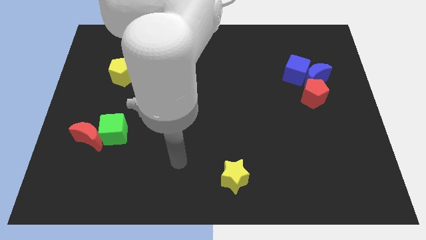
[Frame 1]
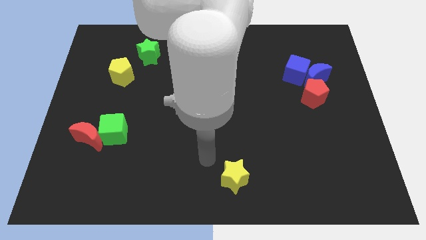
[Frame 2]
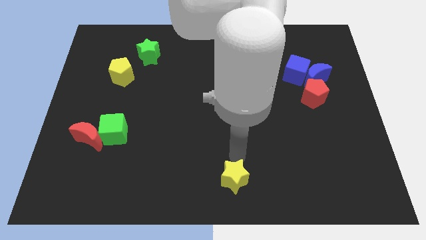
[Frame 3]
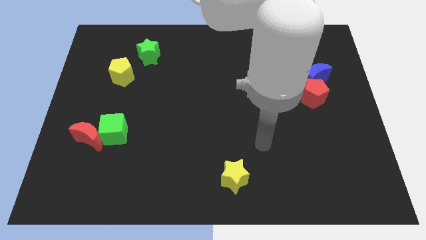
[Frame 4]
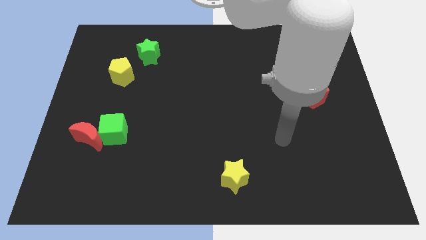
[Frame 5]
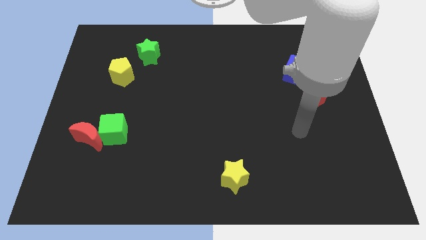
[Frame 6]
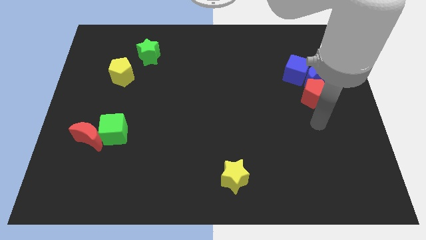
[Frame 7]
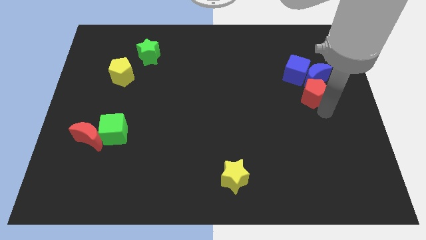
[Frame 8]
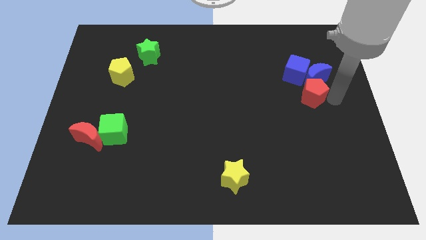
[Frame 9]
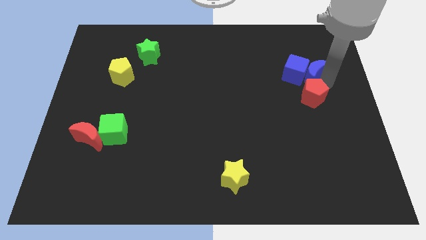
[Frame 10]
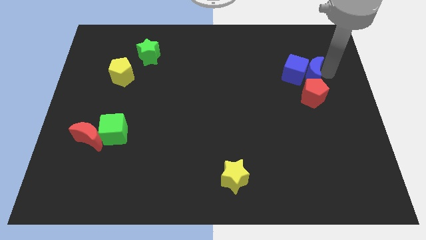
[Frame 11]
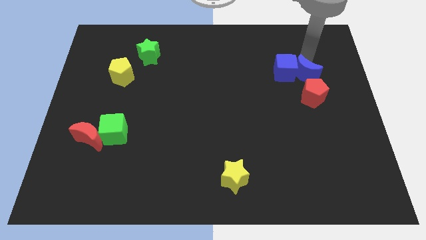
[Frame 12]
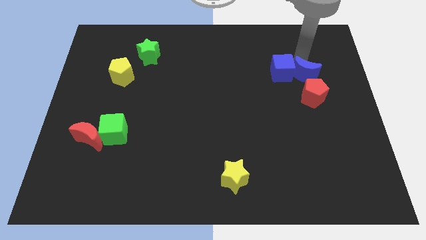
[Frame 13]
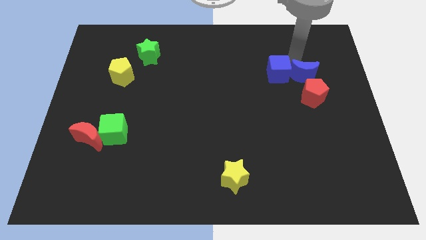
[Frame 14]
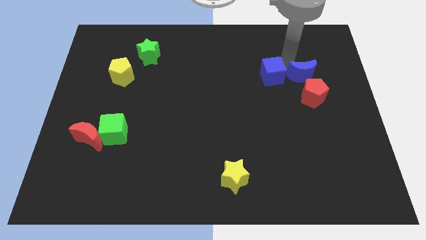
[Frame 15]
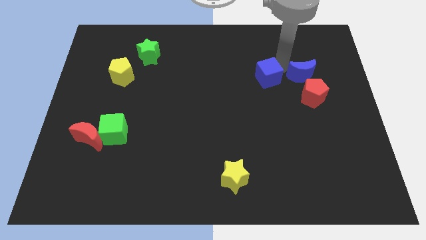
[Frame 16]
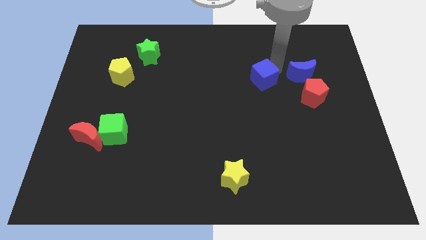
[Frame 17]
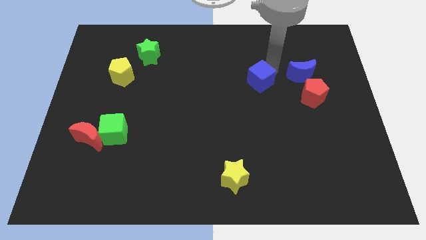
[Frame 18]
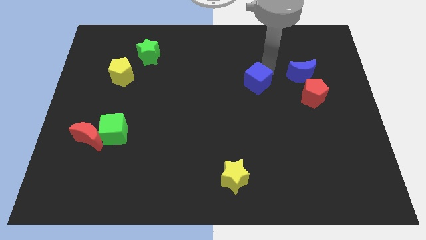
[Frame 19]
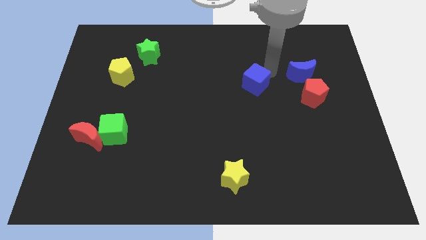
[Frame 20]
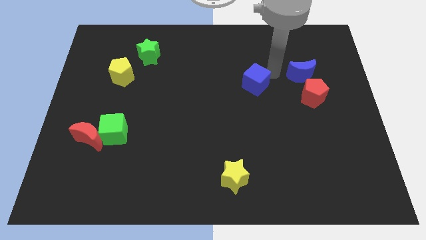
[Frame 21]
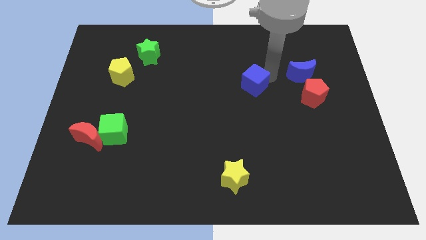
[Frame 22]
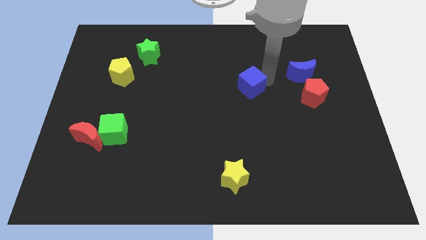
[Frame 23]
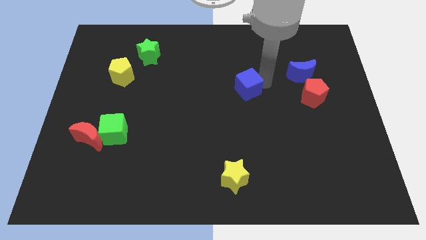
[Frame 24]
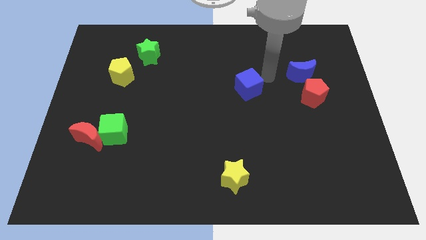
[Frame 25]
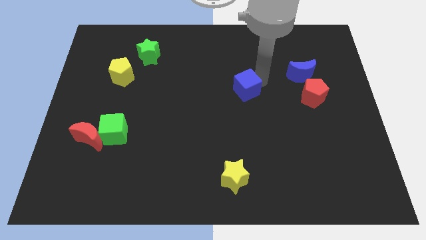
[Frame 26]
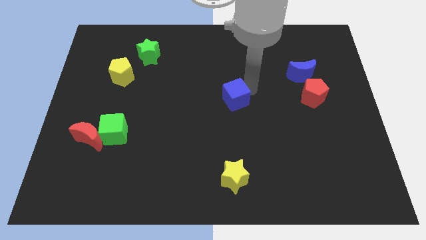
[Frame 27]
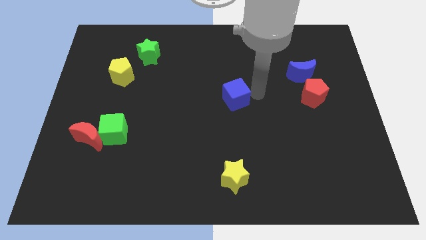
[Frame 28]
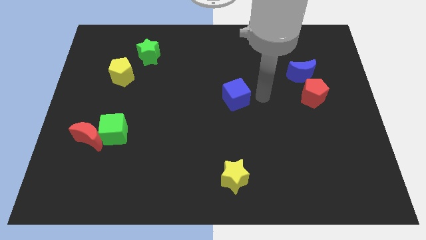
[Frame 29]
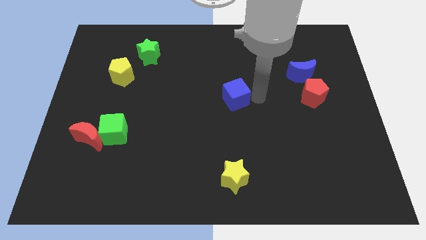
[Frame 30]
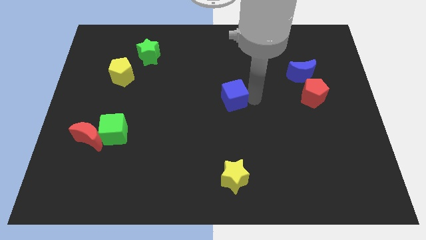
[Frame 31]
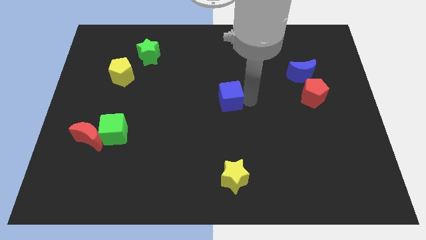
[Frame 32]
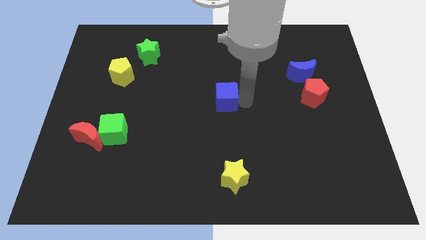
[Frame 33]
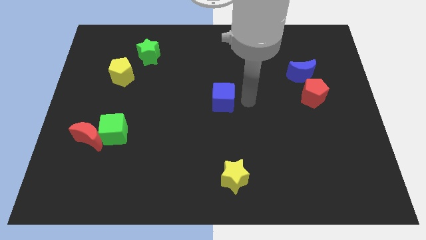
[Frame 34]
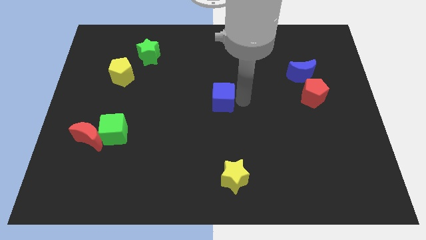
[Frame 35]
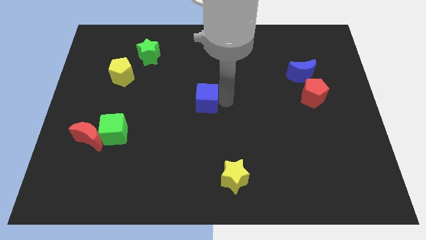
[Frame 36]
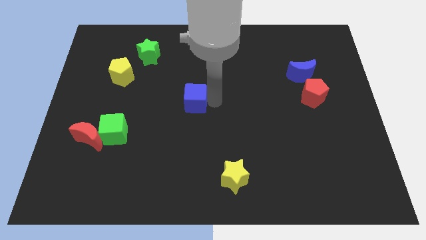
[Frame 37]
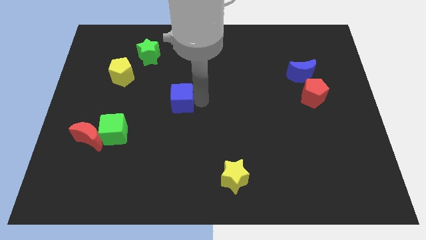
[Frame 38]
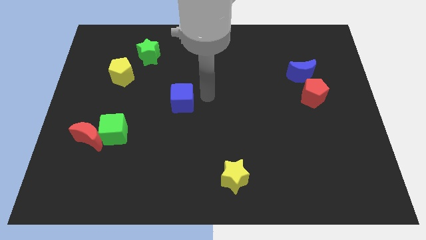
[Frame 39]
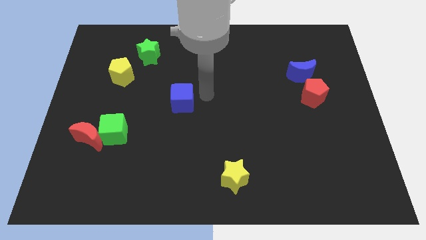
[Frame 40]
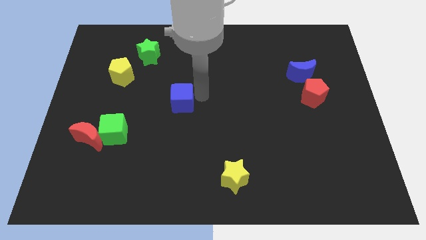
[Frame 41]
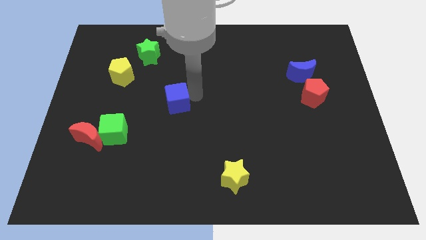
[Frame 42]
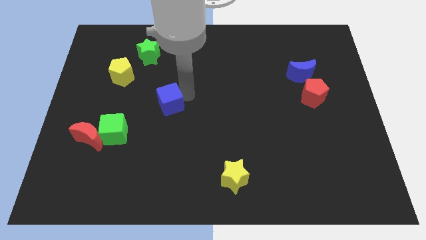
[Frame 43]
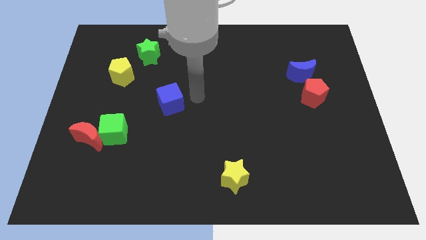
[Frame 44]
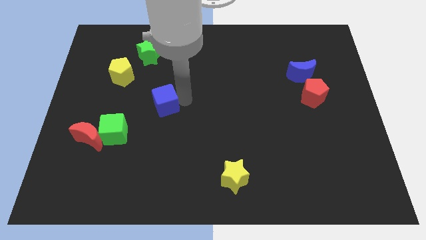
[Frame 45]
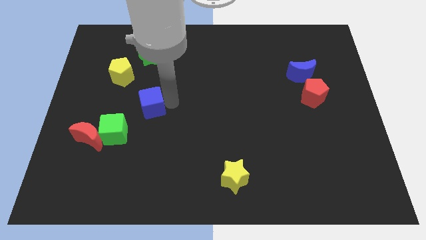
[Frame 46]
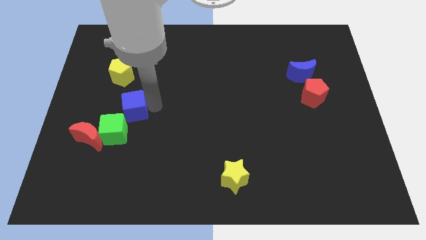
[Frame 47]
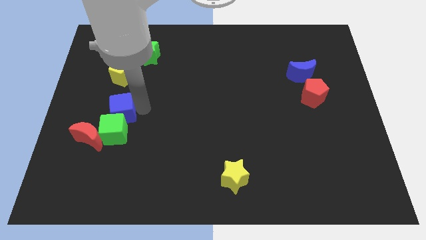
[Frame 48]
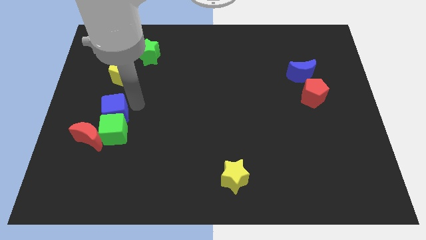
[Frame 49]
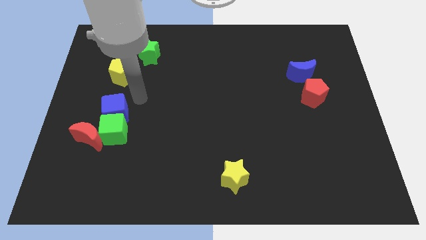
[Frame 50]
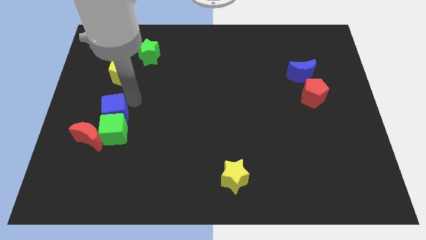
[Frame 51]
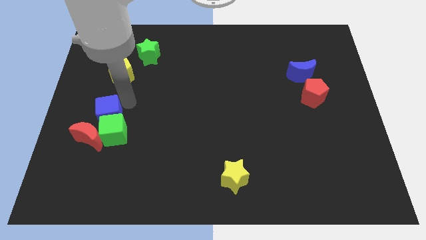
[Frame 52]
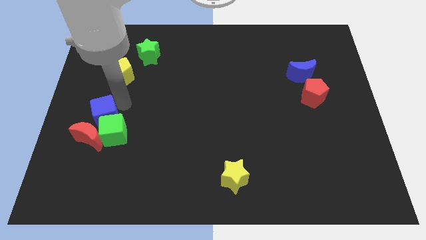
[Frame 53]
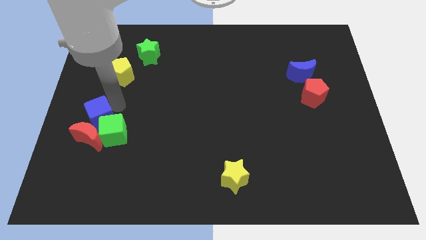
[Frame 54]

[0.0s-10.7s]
slide the blue cube to the red moon

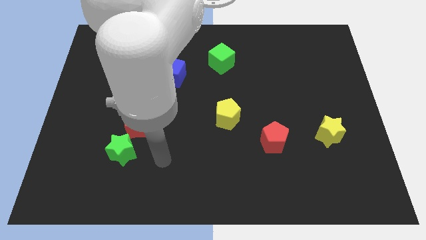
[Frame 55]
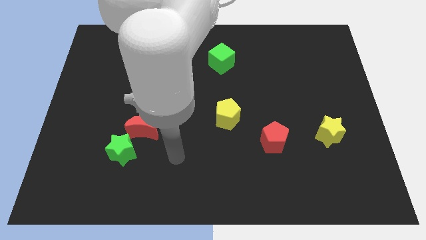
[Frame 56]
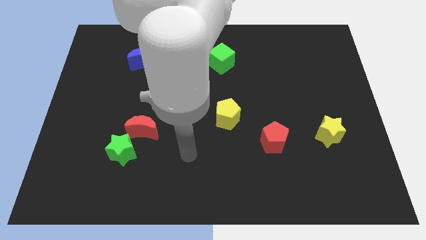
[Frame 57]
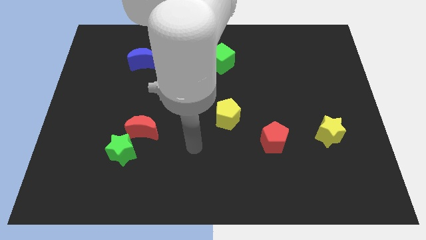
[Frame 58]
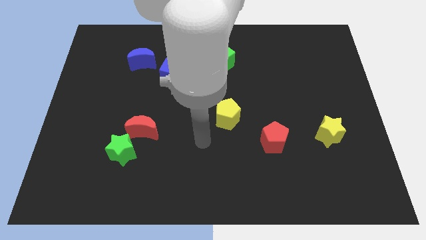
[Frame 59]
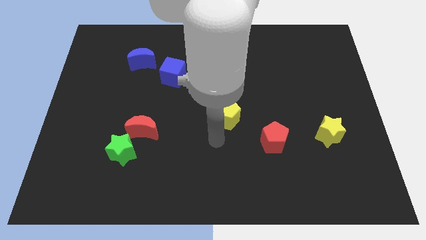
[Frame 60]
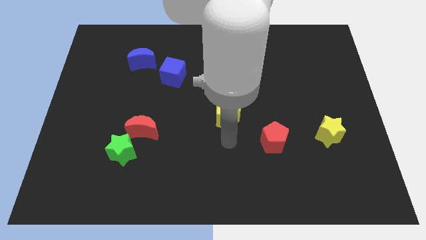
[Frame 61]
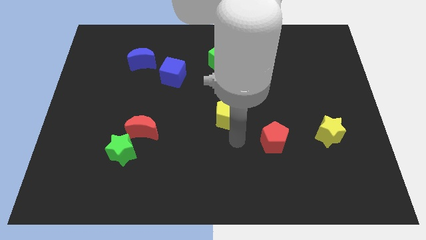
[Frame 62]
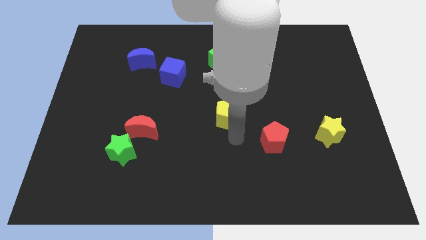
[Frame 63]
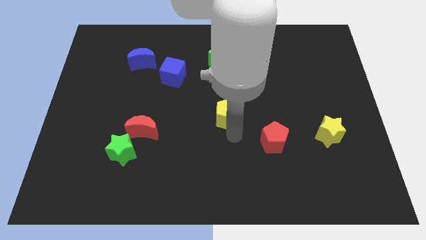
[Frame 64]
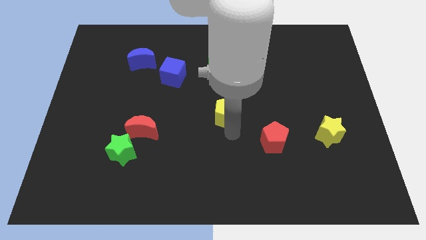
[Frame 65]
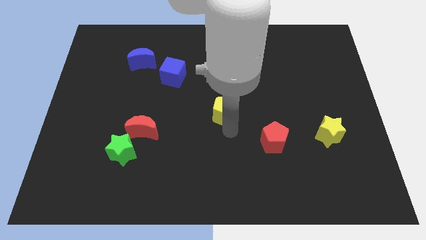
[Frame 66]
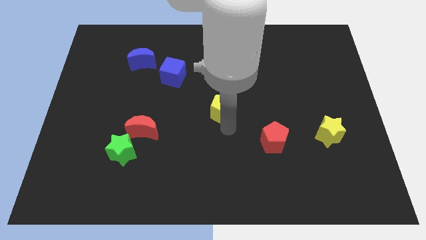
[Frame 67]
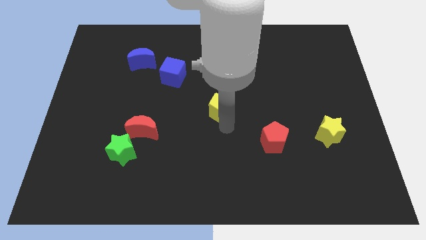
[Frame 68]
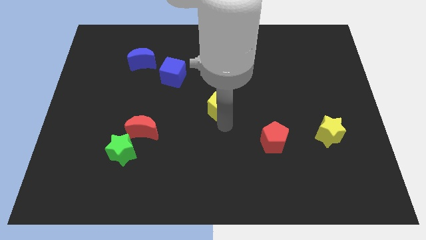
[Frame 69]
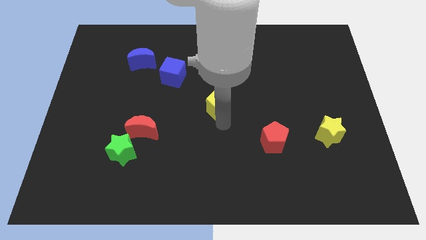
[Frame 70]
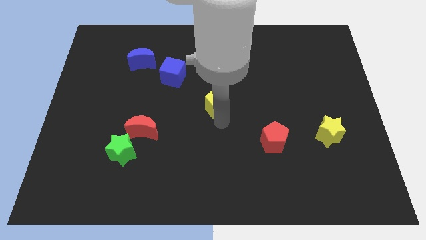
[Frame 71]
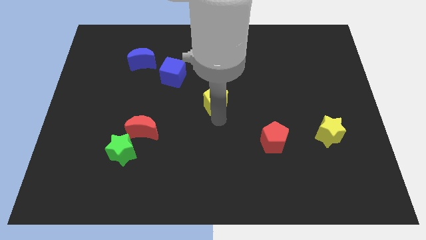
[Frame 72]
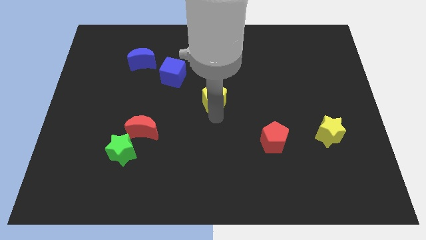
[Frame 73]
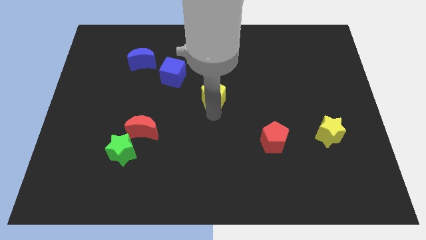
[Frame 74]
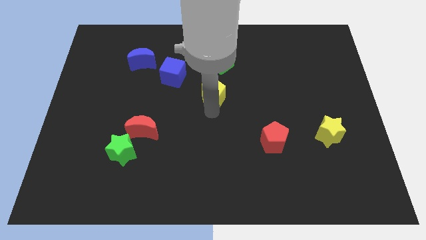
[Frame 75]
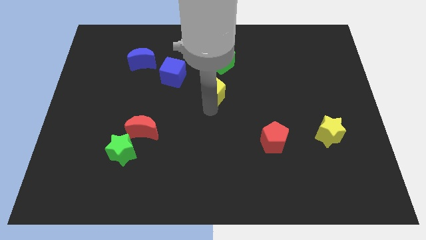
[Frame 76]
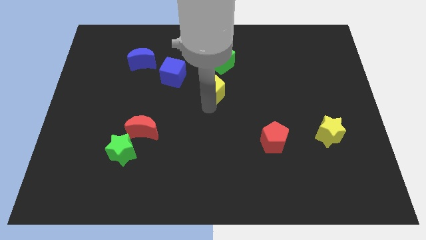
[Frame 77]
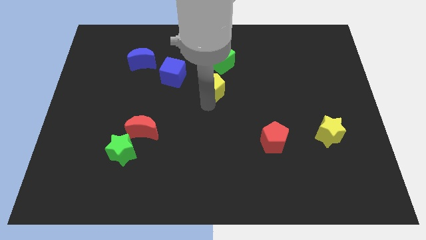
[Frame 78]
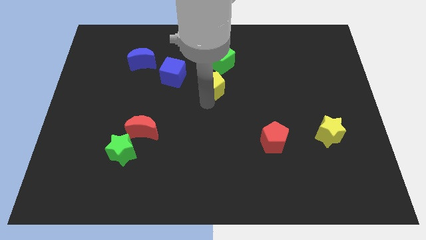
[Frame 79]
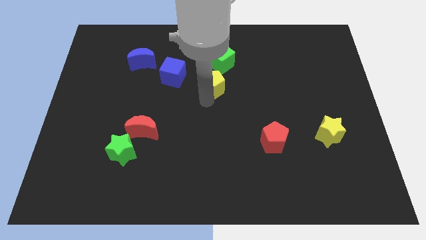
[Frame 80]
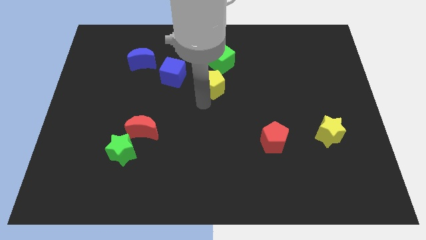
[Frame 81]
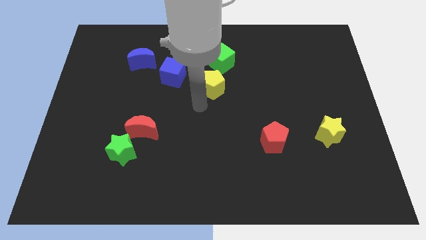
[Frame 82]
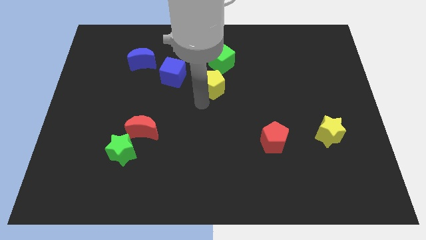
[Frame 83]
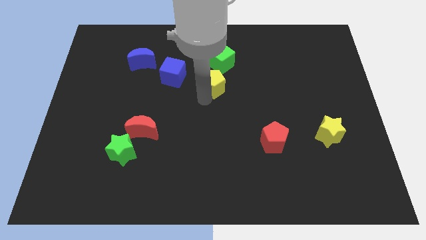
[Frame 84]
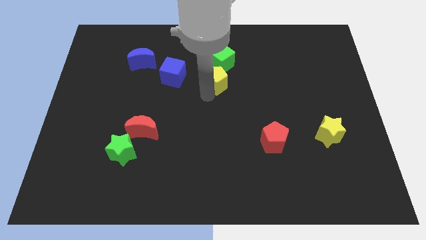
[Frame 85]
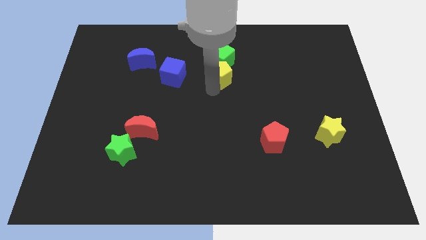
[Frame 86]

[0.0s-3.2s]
put the yellow pentagon close to the green cube

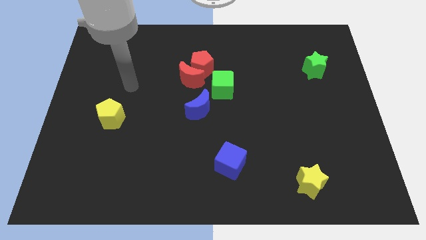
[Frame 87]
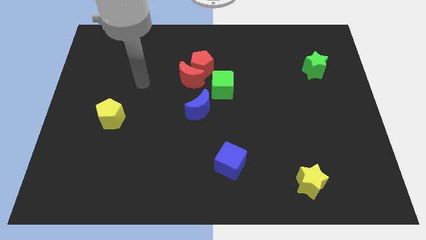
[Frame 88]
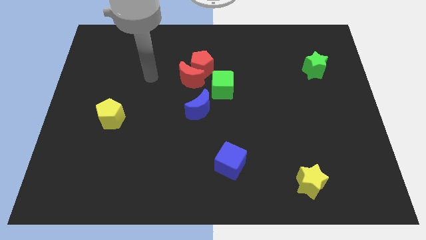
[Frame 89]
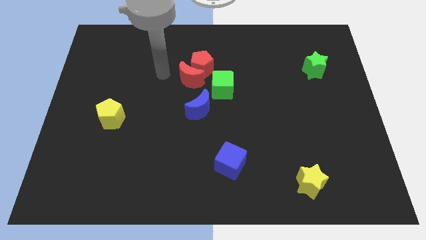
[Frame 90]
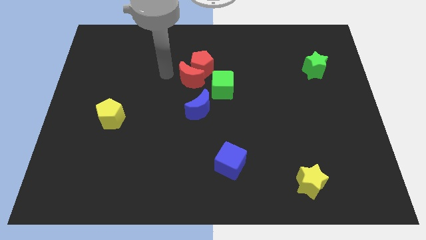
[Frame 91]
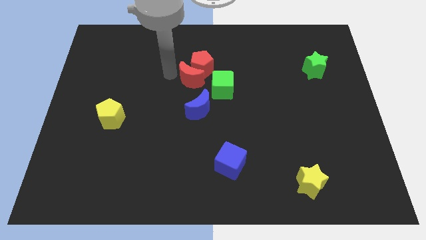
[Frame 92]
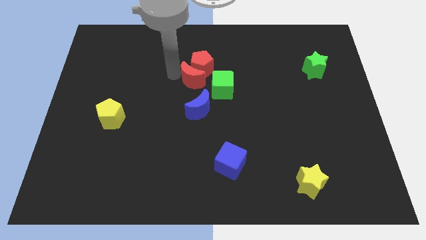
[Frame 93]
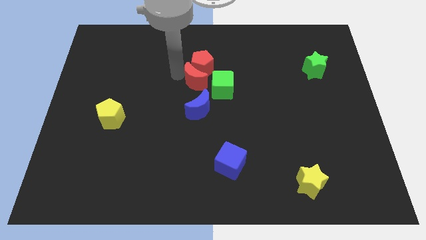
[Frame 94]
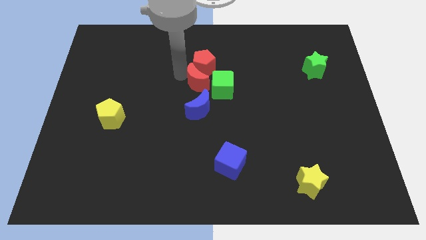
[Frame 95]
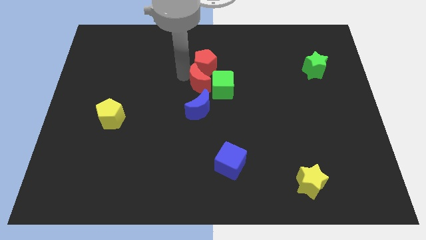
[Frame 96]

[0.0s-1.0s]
push the red moon close to the green cube
